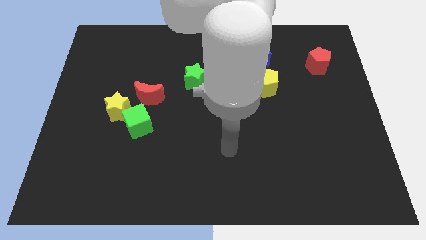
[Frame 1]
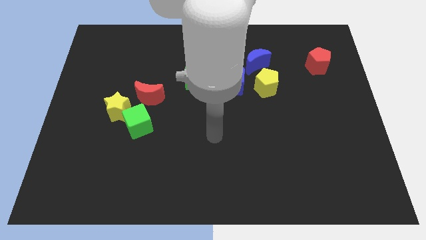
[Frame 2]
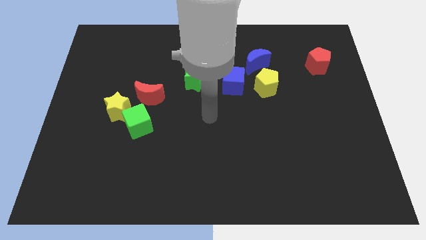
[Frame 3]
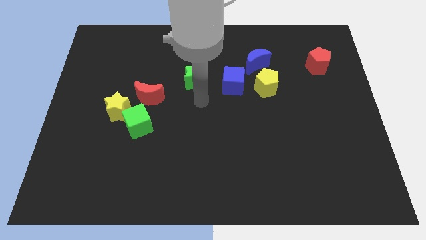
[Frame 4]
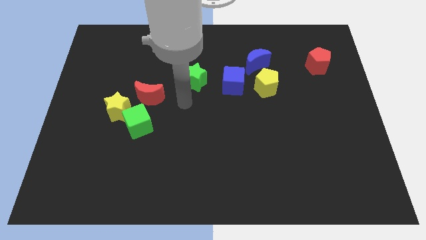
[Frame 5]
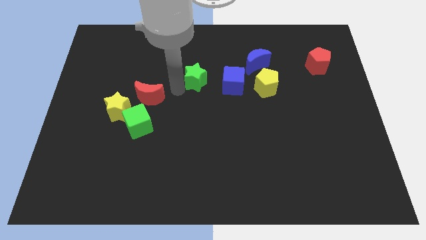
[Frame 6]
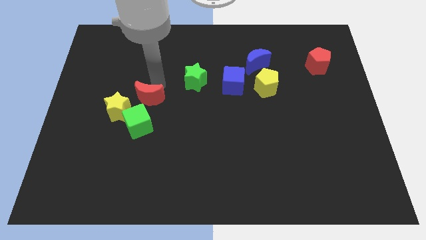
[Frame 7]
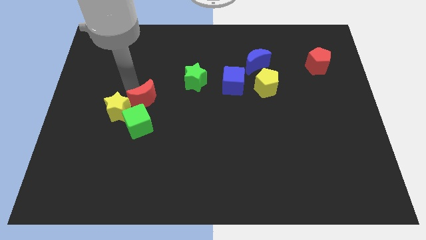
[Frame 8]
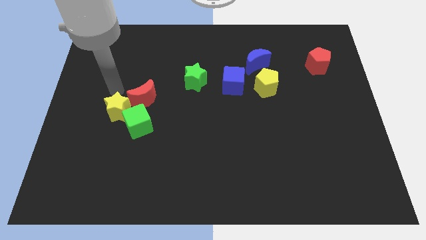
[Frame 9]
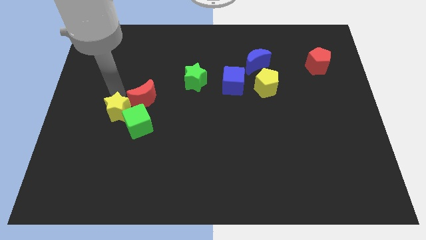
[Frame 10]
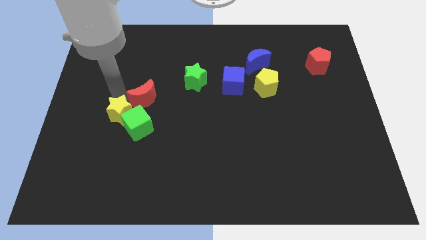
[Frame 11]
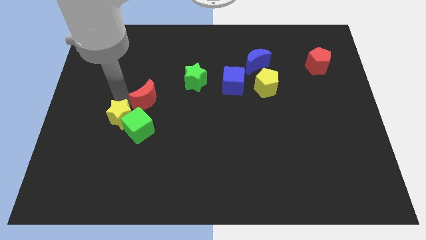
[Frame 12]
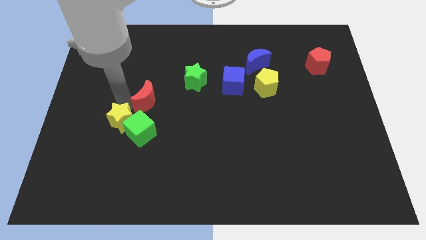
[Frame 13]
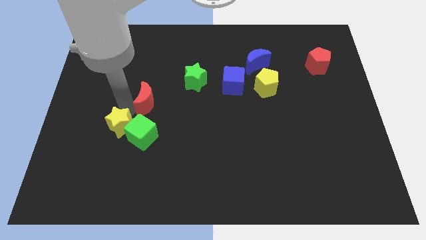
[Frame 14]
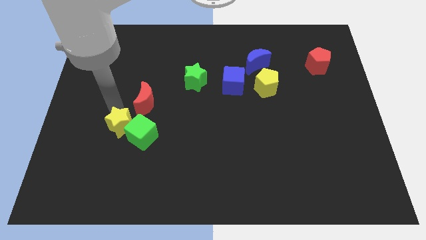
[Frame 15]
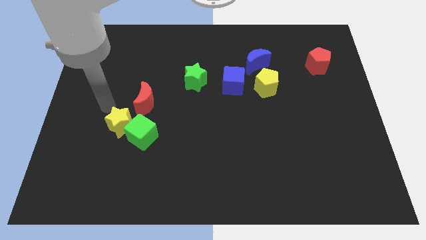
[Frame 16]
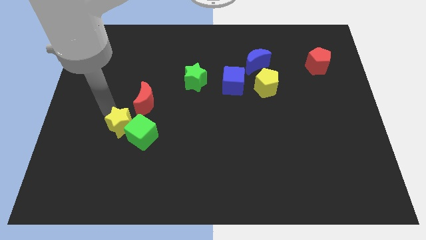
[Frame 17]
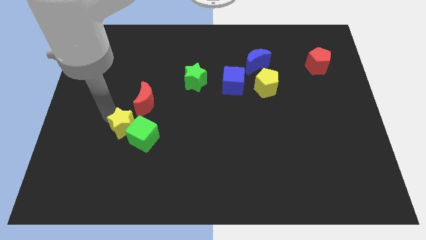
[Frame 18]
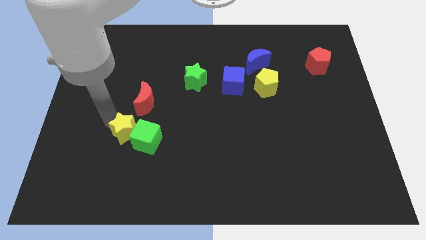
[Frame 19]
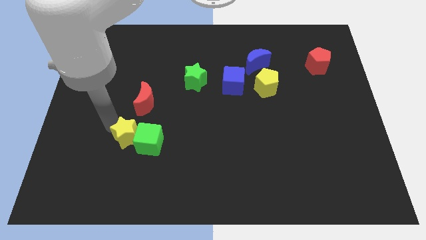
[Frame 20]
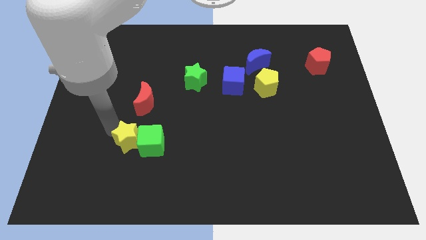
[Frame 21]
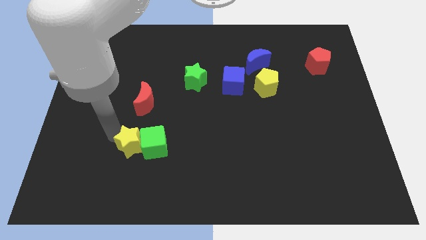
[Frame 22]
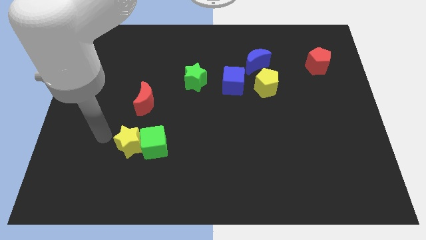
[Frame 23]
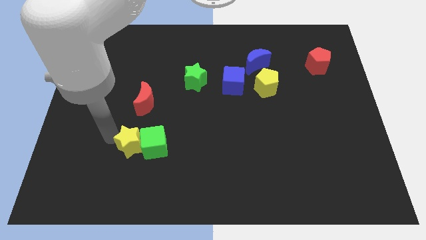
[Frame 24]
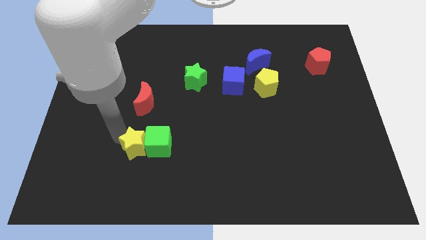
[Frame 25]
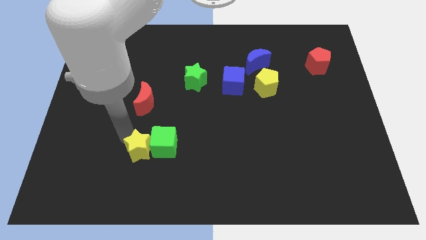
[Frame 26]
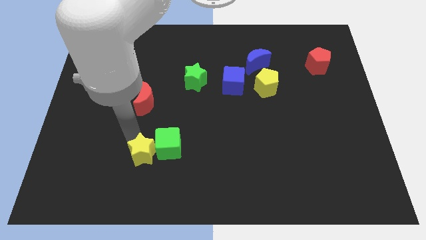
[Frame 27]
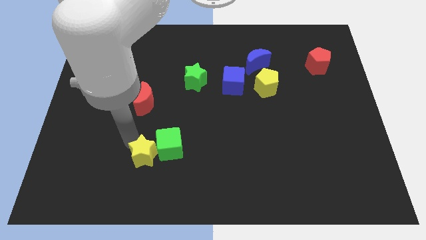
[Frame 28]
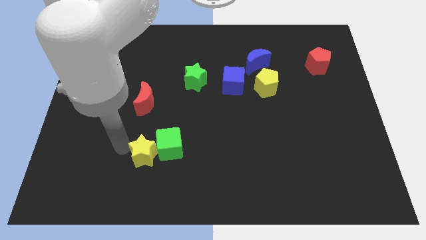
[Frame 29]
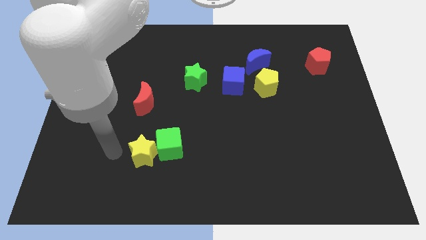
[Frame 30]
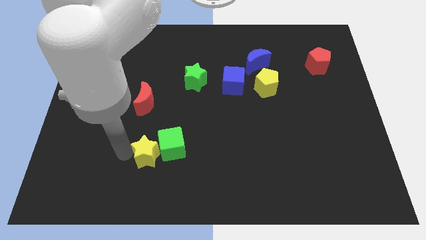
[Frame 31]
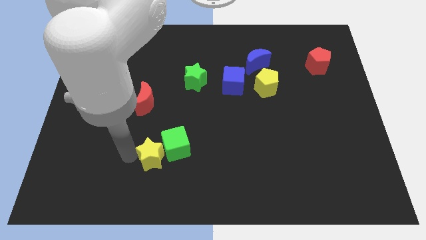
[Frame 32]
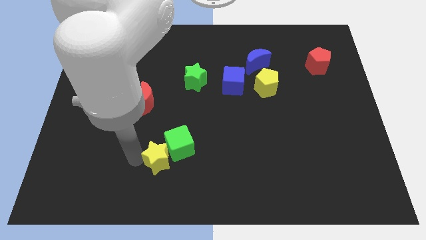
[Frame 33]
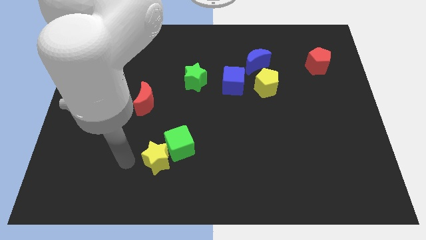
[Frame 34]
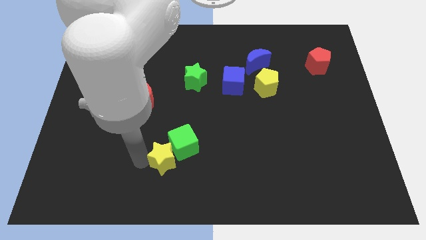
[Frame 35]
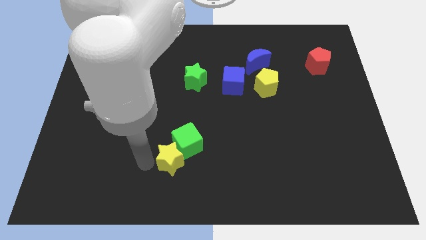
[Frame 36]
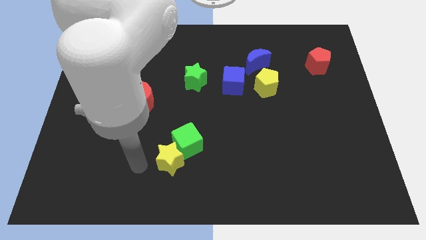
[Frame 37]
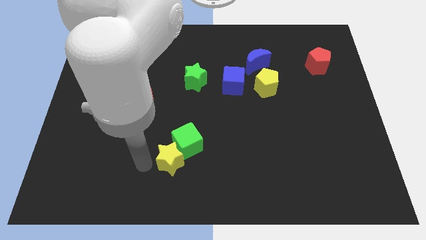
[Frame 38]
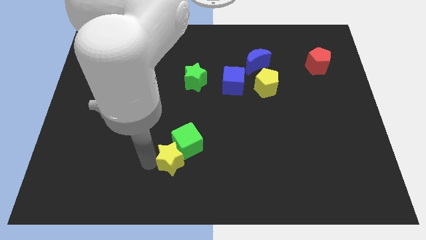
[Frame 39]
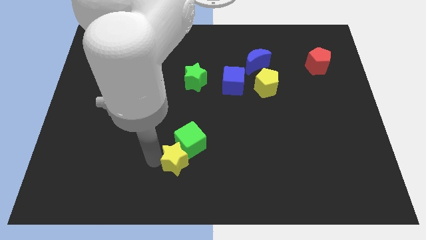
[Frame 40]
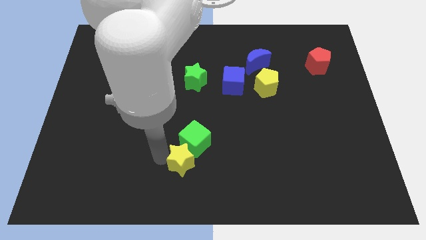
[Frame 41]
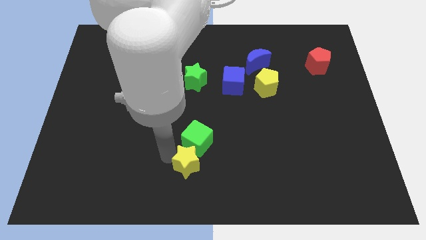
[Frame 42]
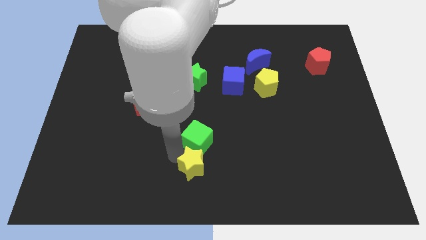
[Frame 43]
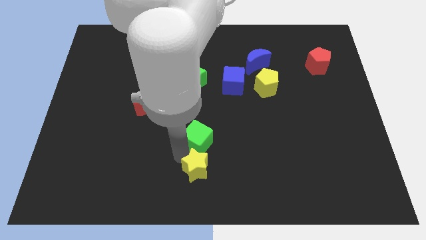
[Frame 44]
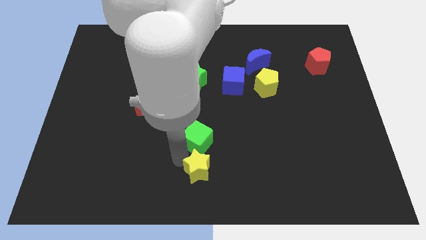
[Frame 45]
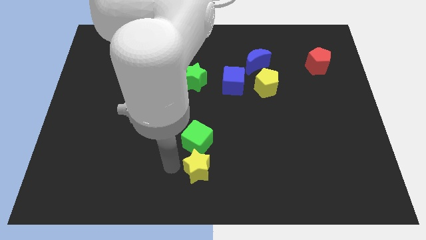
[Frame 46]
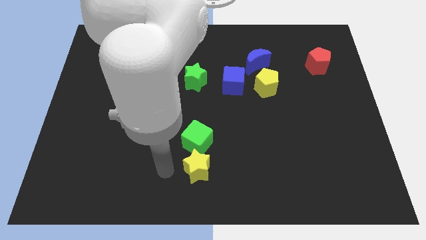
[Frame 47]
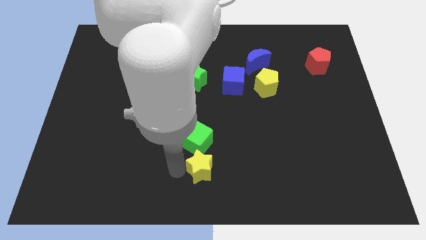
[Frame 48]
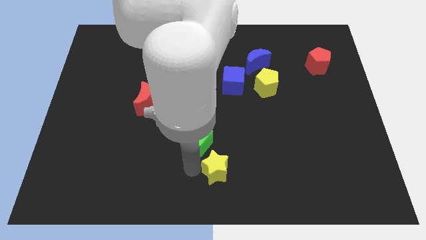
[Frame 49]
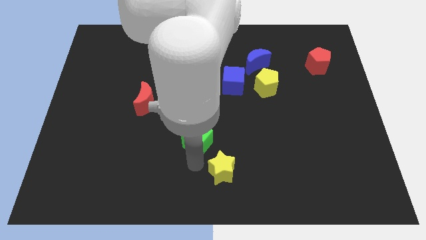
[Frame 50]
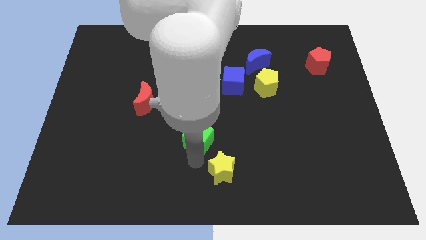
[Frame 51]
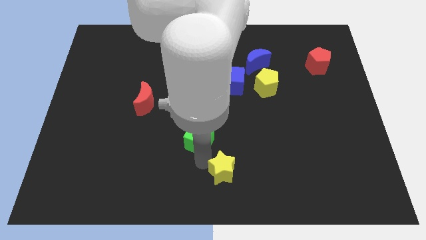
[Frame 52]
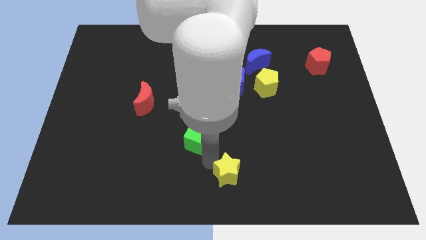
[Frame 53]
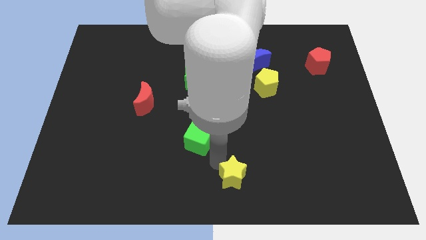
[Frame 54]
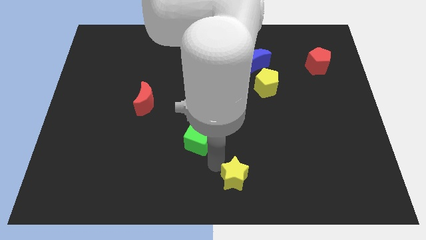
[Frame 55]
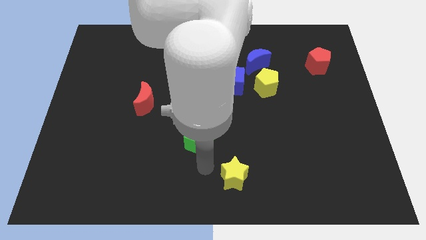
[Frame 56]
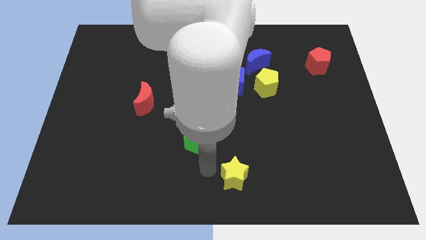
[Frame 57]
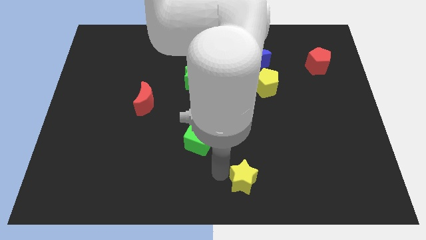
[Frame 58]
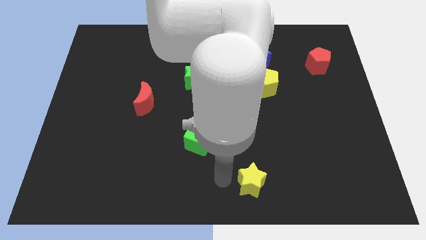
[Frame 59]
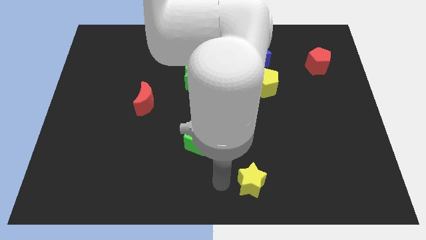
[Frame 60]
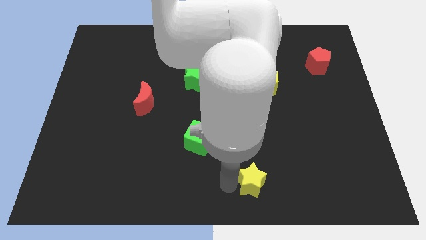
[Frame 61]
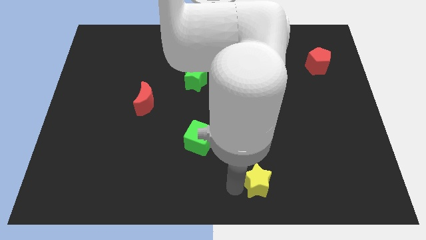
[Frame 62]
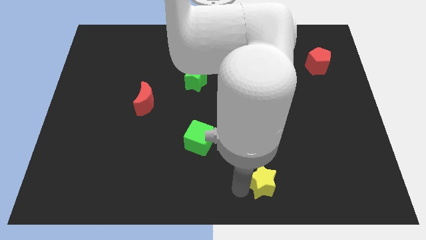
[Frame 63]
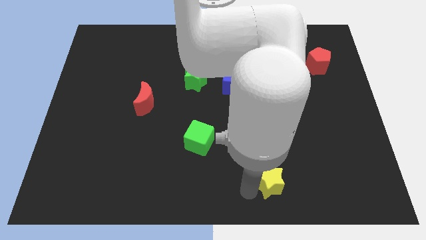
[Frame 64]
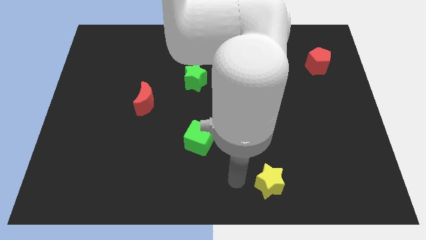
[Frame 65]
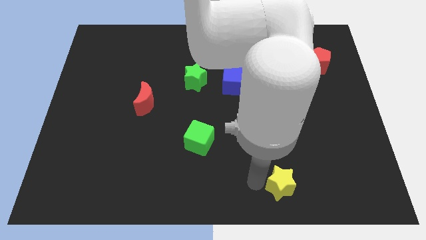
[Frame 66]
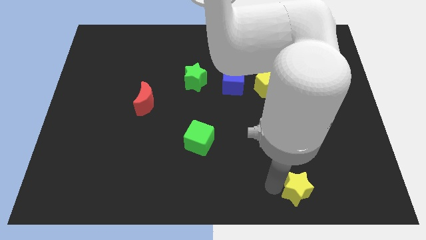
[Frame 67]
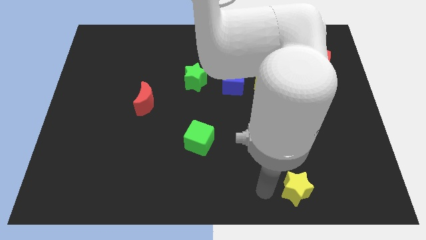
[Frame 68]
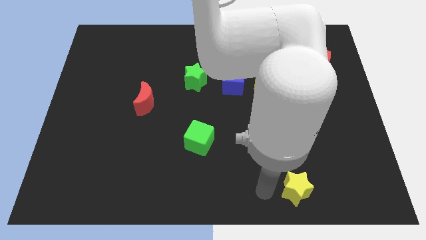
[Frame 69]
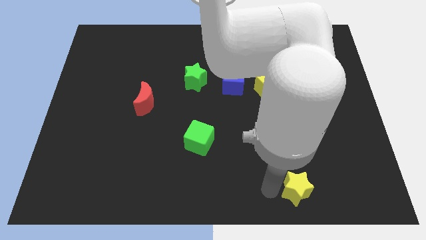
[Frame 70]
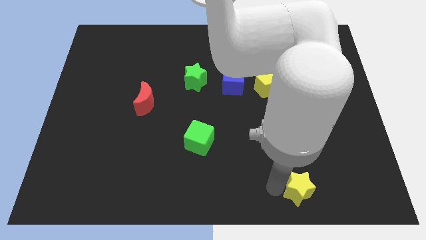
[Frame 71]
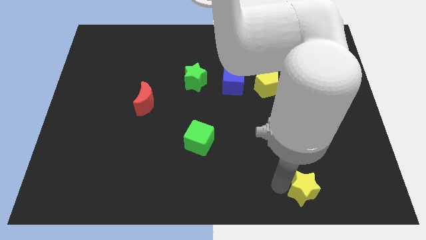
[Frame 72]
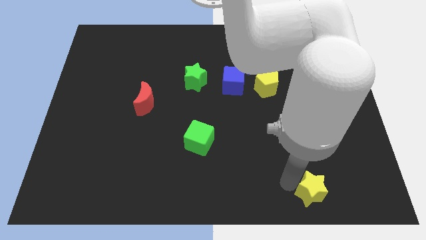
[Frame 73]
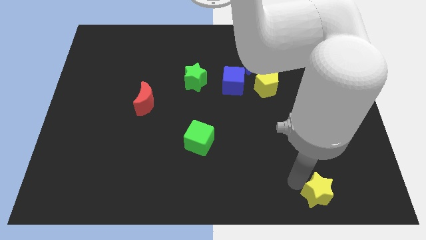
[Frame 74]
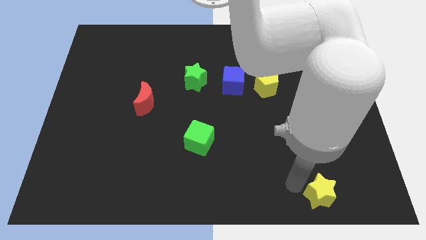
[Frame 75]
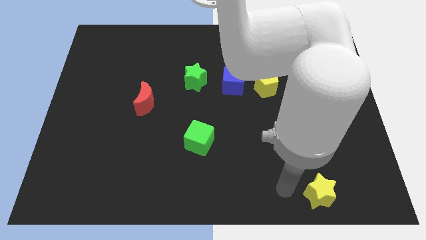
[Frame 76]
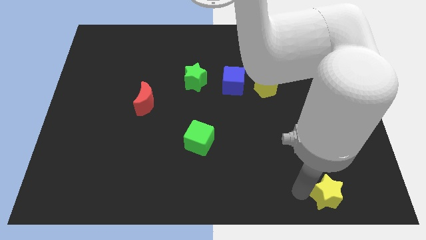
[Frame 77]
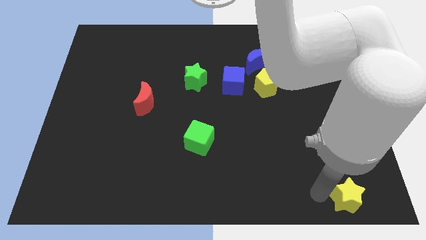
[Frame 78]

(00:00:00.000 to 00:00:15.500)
move the yellow star to the bottom right
